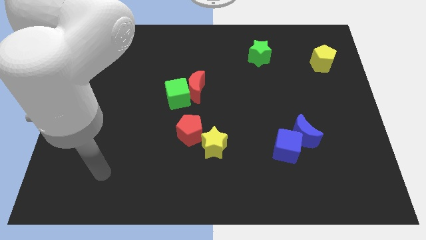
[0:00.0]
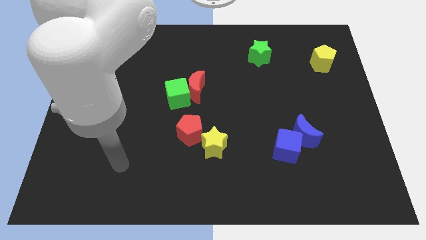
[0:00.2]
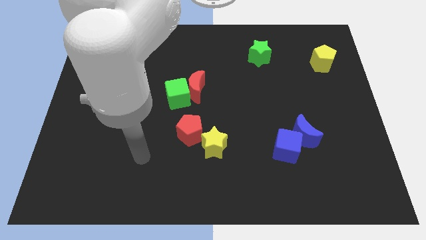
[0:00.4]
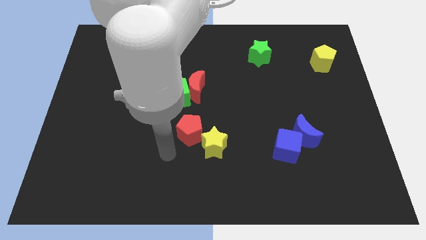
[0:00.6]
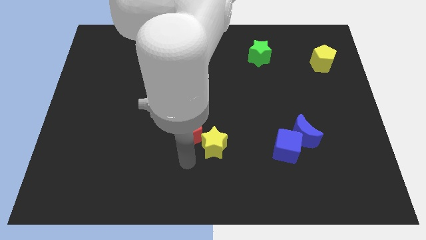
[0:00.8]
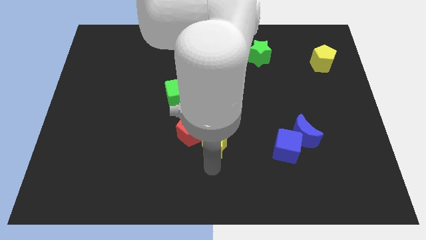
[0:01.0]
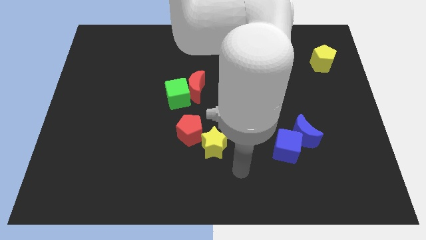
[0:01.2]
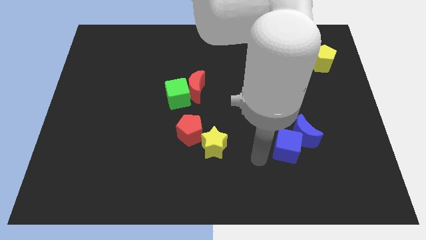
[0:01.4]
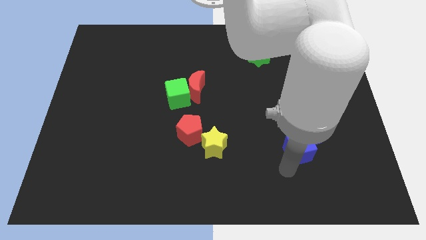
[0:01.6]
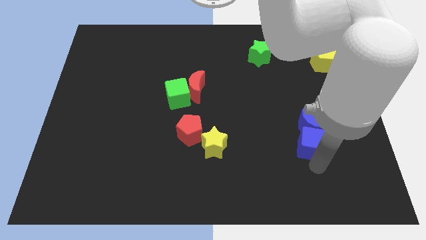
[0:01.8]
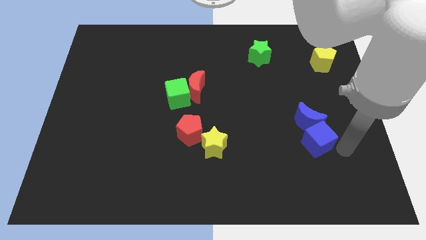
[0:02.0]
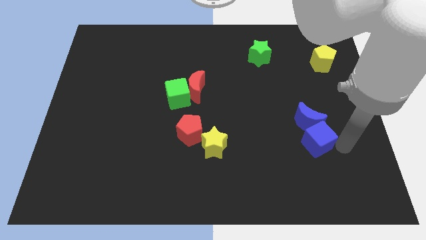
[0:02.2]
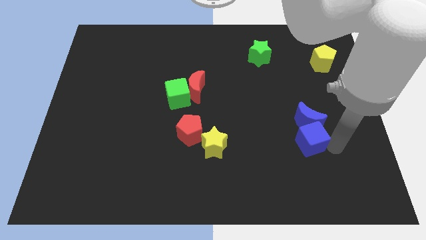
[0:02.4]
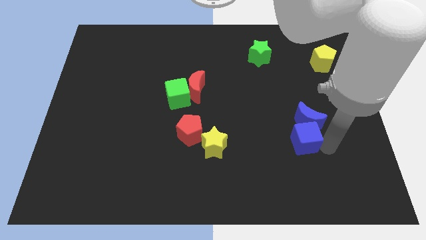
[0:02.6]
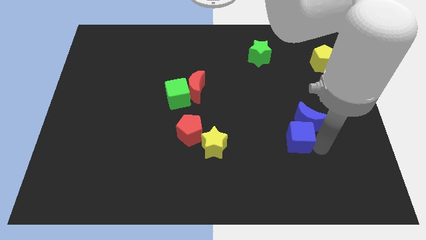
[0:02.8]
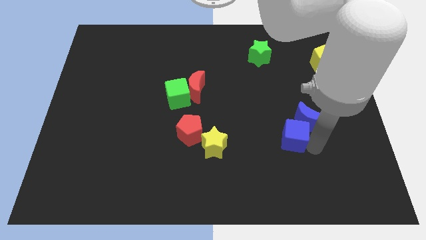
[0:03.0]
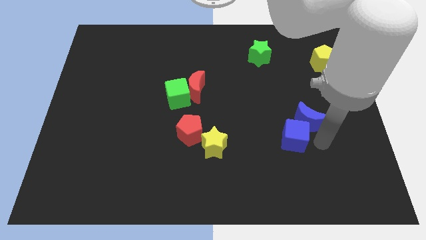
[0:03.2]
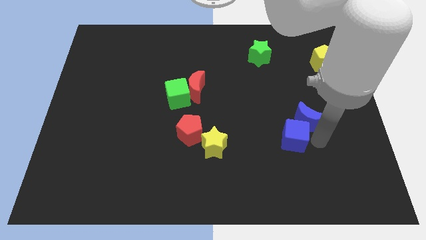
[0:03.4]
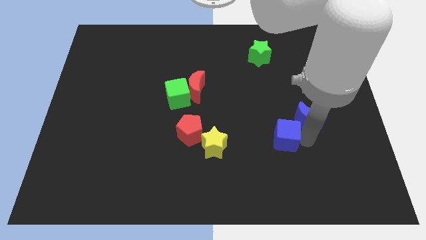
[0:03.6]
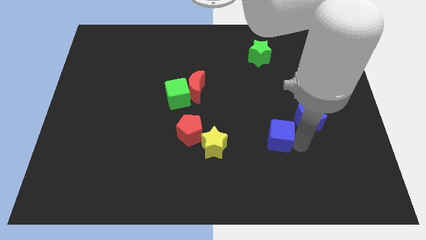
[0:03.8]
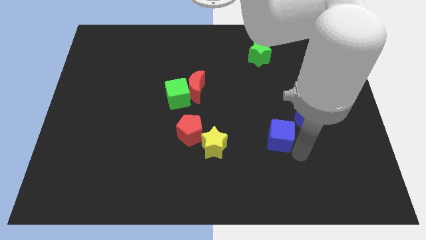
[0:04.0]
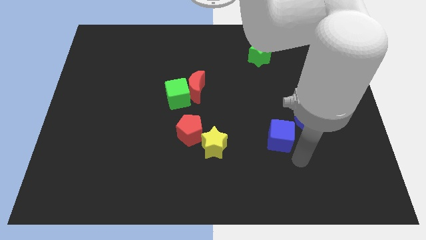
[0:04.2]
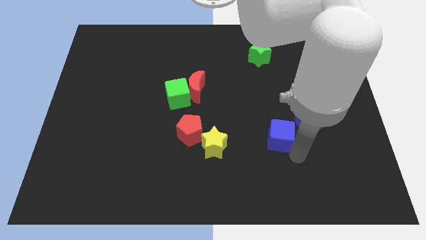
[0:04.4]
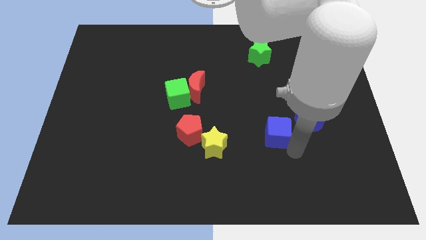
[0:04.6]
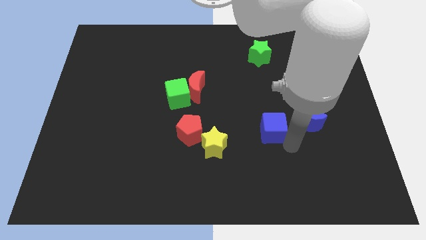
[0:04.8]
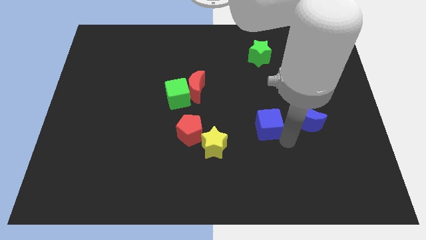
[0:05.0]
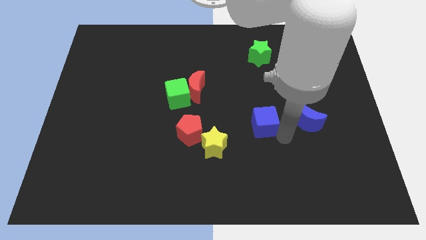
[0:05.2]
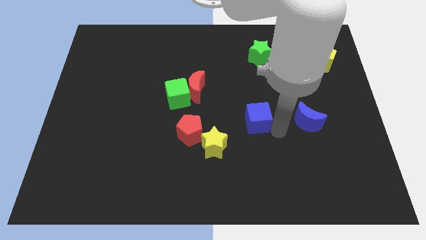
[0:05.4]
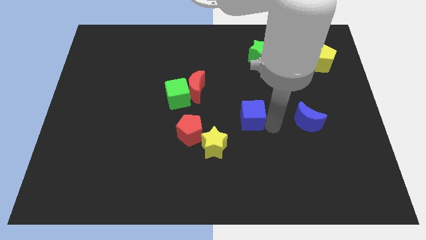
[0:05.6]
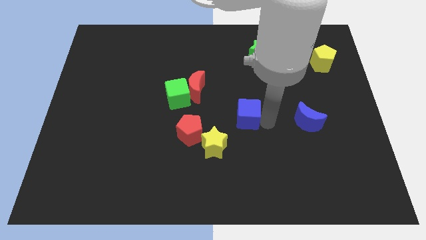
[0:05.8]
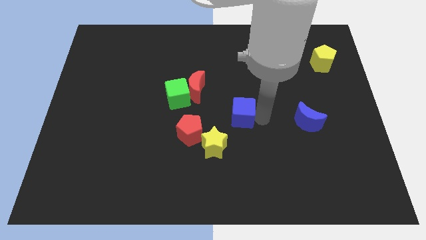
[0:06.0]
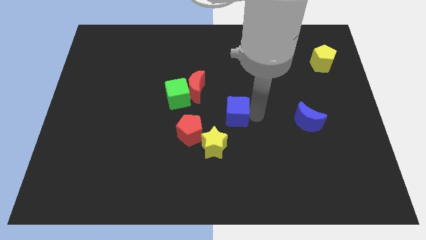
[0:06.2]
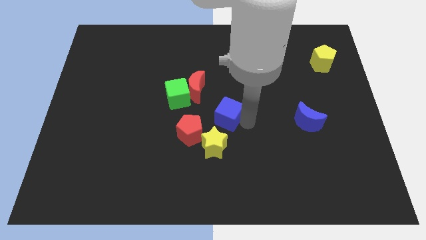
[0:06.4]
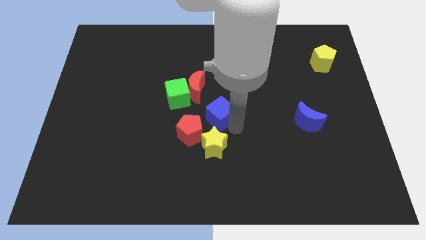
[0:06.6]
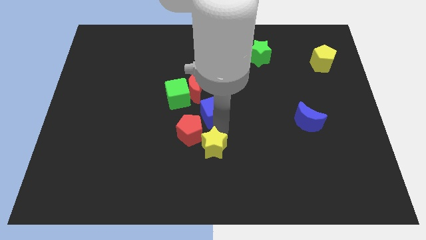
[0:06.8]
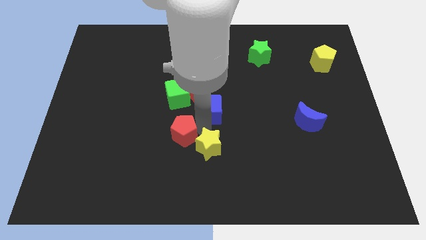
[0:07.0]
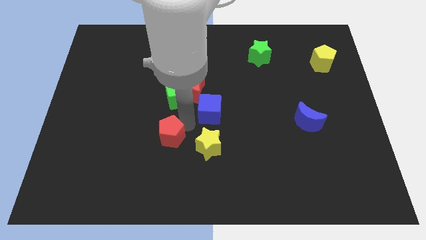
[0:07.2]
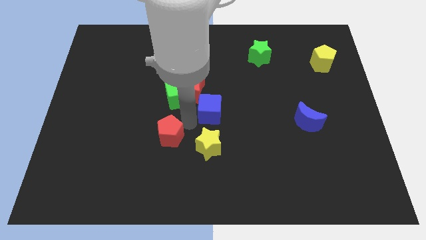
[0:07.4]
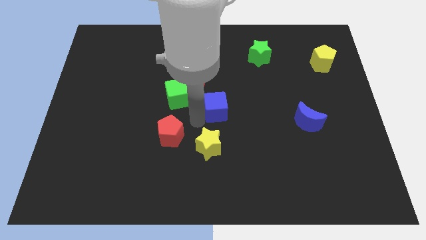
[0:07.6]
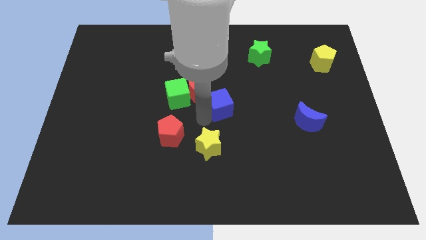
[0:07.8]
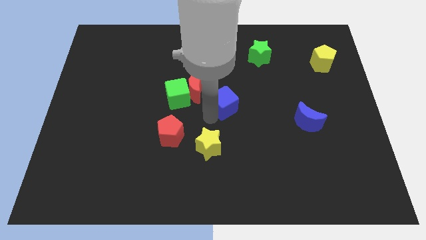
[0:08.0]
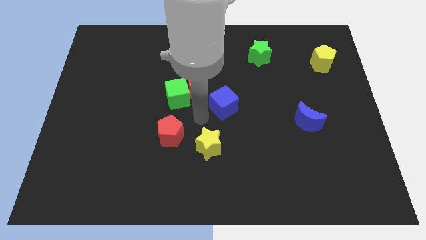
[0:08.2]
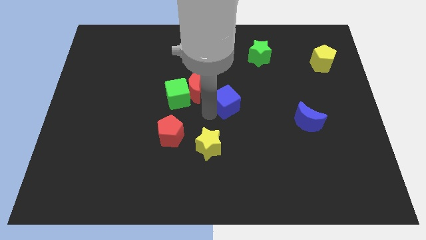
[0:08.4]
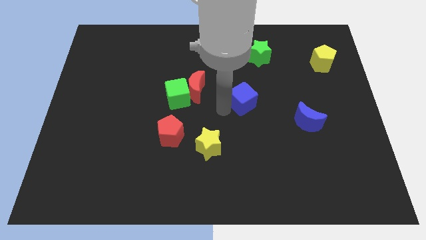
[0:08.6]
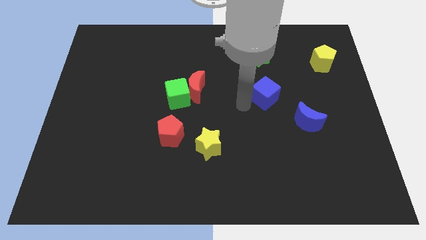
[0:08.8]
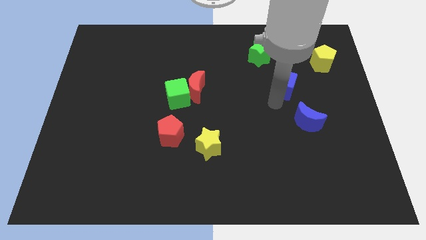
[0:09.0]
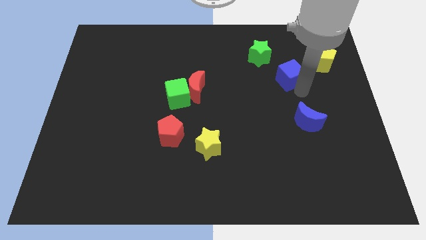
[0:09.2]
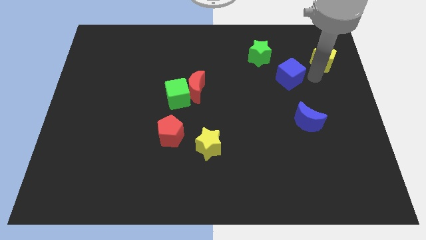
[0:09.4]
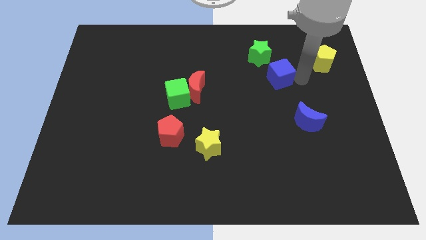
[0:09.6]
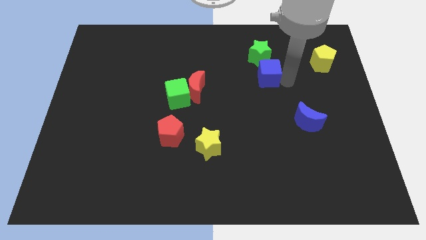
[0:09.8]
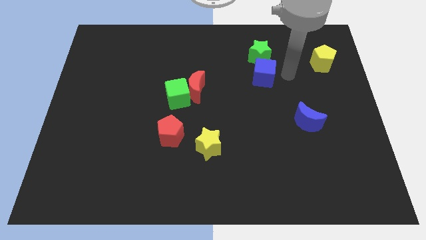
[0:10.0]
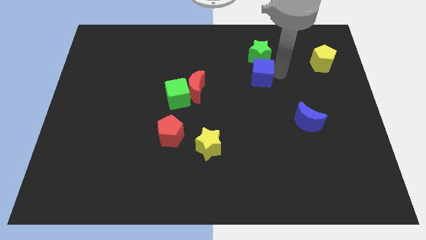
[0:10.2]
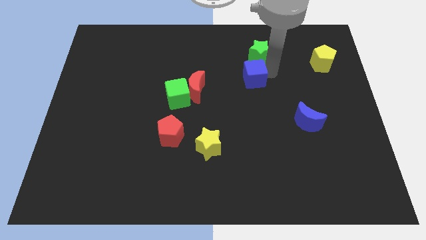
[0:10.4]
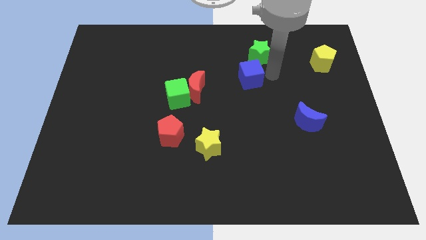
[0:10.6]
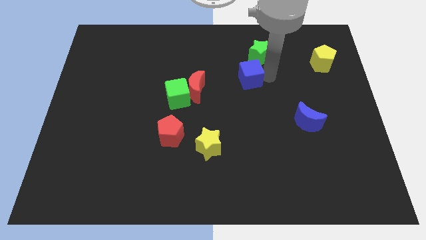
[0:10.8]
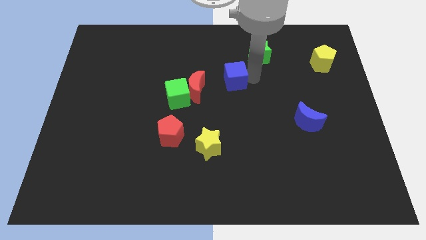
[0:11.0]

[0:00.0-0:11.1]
push the blue cube diagonally upwards and to the left

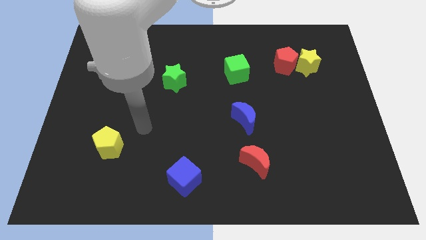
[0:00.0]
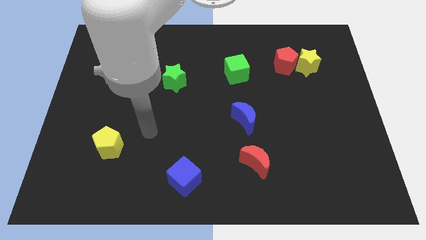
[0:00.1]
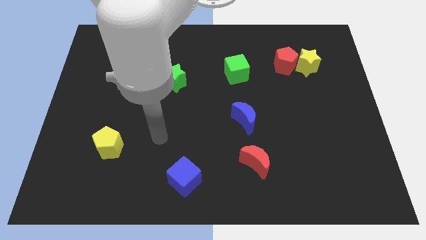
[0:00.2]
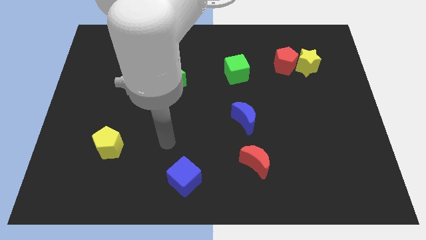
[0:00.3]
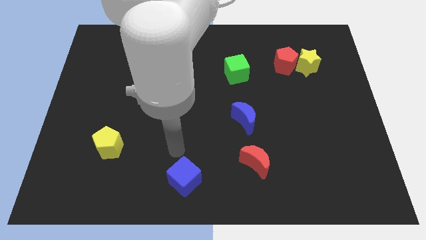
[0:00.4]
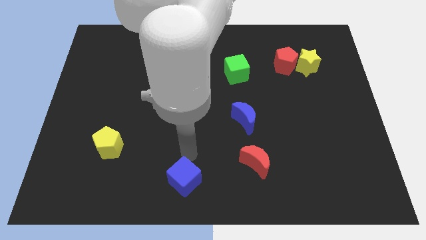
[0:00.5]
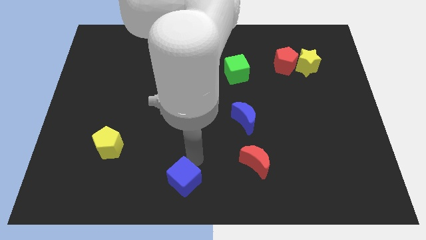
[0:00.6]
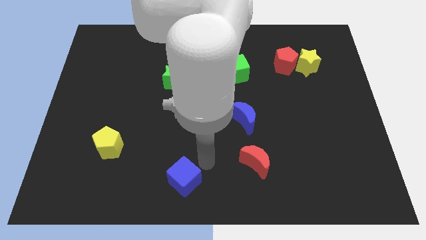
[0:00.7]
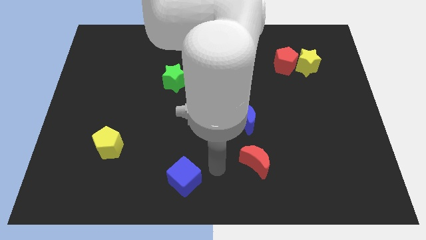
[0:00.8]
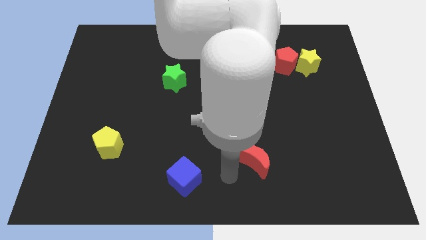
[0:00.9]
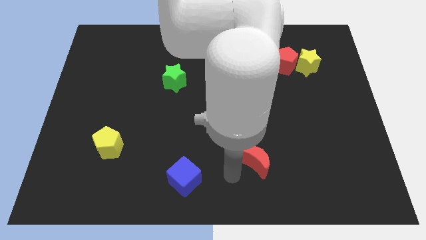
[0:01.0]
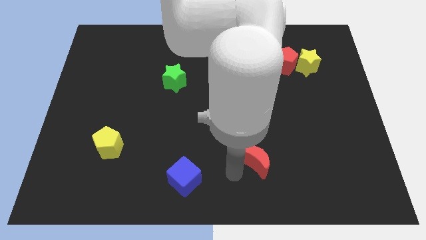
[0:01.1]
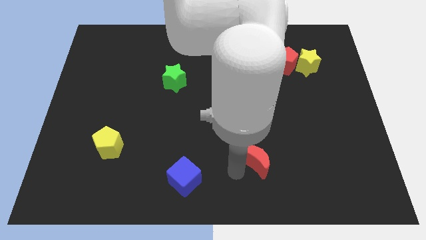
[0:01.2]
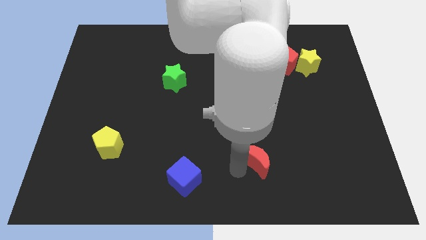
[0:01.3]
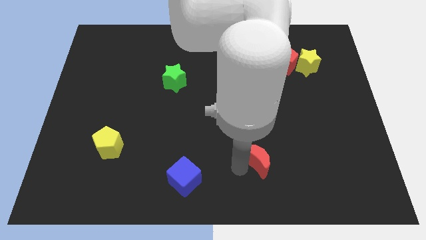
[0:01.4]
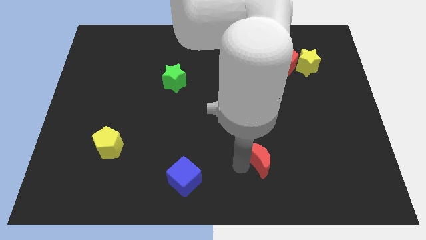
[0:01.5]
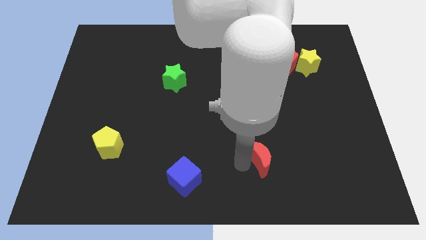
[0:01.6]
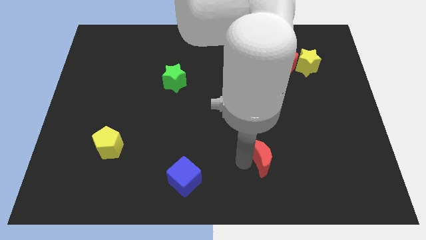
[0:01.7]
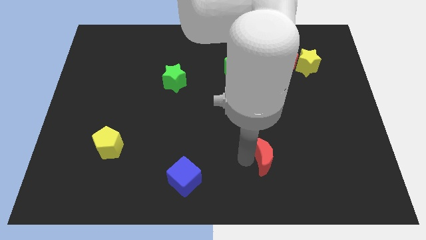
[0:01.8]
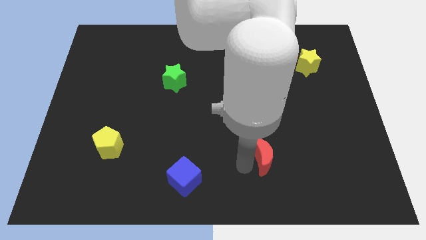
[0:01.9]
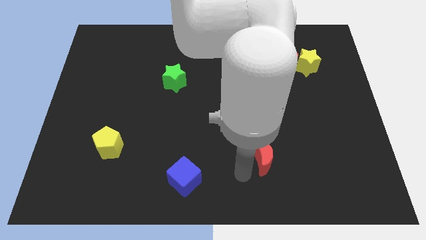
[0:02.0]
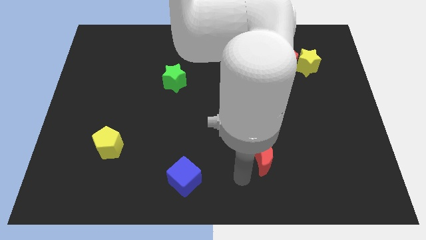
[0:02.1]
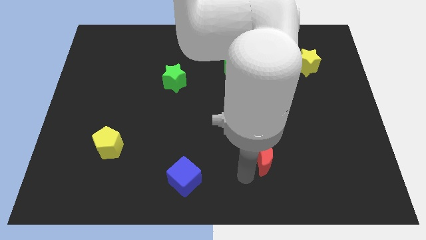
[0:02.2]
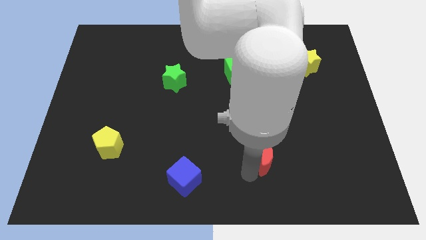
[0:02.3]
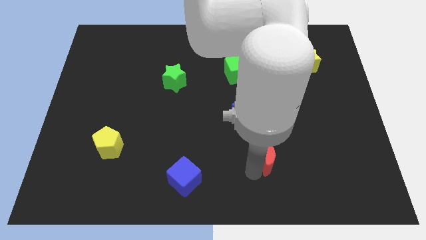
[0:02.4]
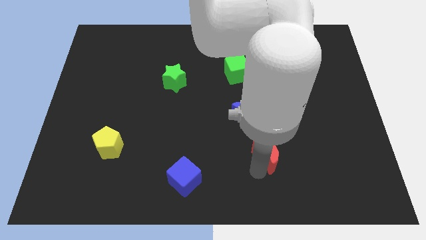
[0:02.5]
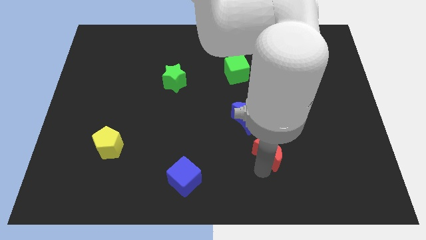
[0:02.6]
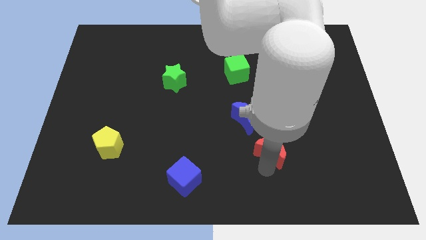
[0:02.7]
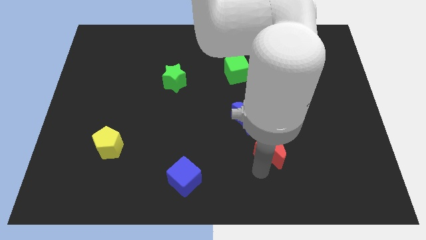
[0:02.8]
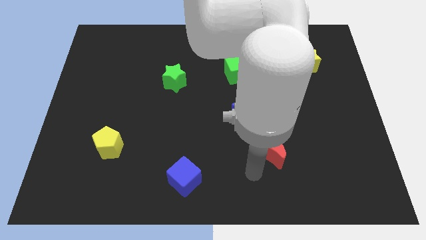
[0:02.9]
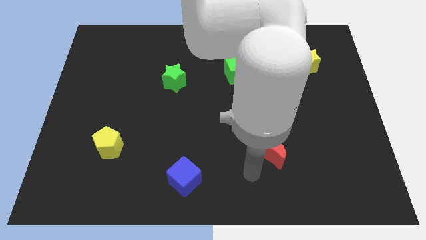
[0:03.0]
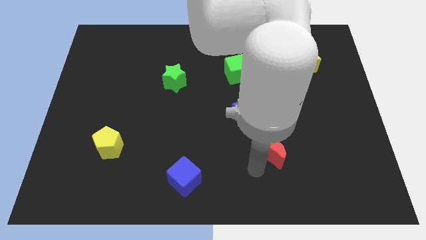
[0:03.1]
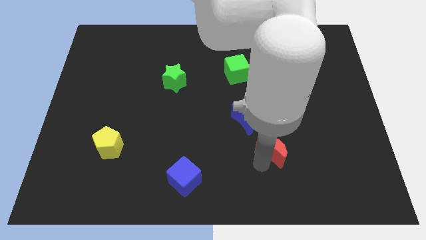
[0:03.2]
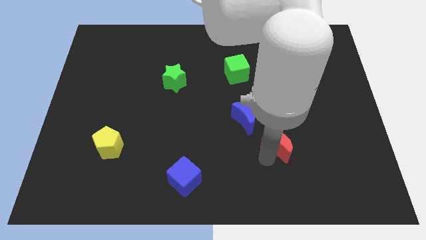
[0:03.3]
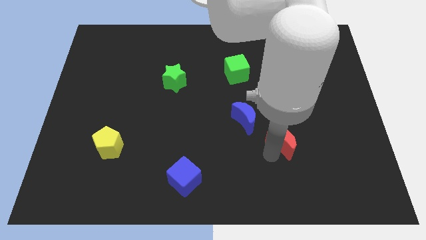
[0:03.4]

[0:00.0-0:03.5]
slightly push the red moon up and then right
